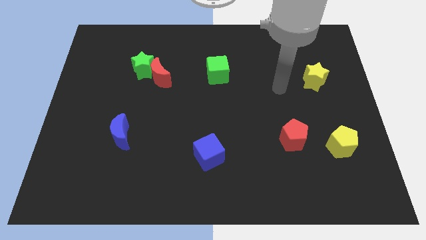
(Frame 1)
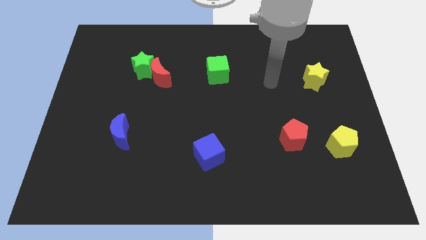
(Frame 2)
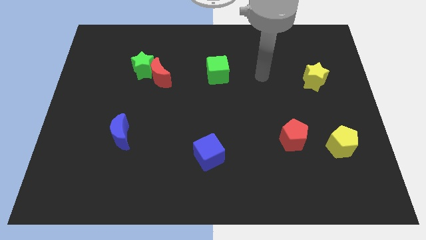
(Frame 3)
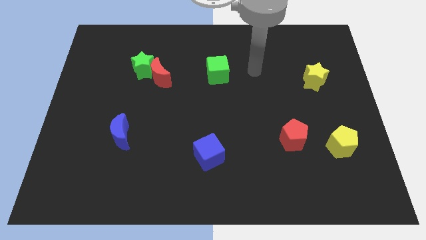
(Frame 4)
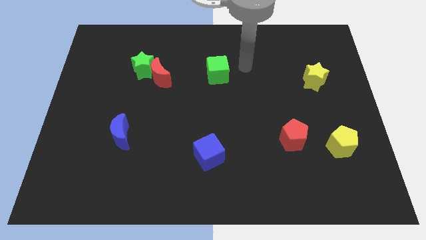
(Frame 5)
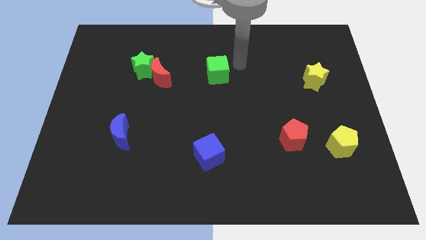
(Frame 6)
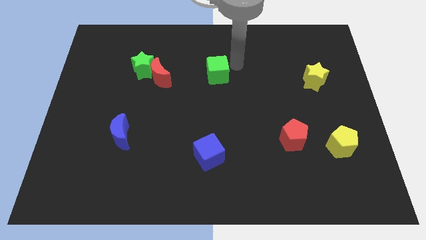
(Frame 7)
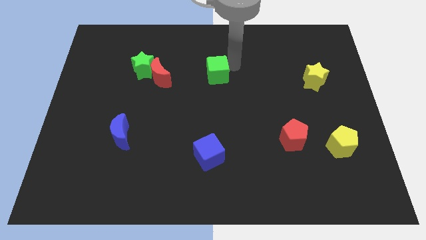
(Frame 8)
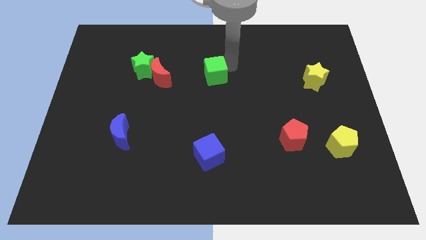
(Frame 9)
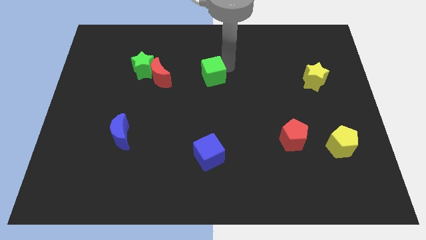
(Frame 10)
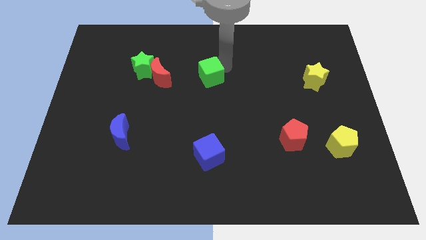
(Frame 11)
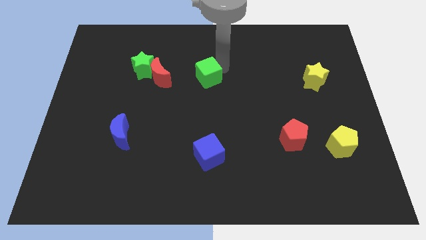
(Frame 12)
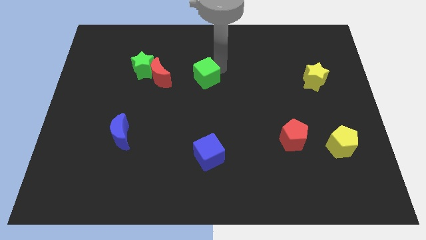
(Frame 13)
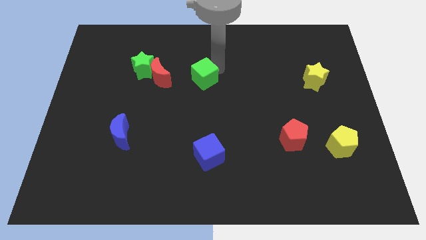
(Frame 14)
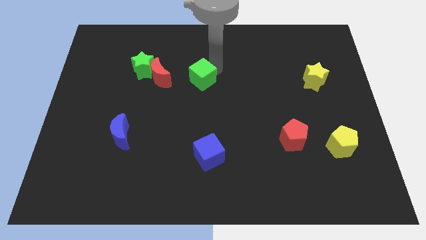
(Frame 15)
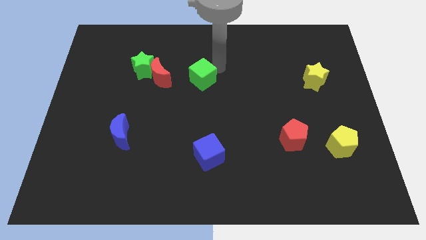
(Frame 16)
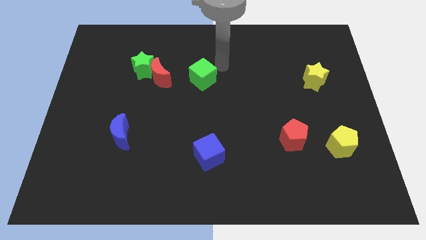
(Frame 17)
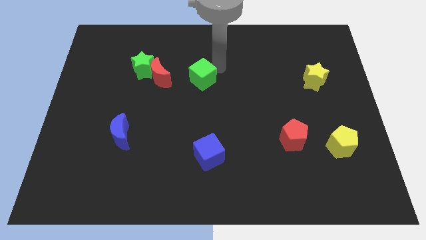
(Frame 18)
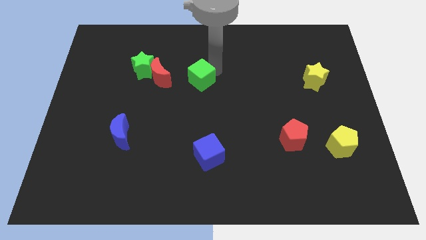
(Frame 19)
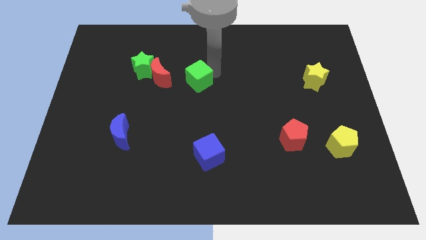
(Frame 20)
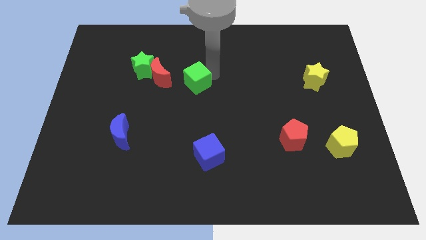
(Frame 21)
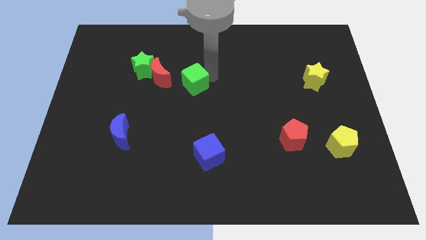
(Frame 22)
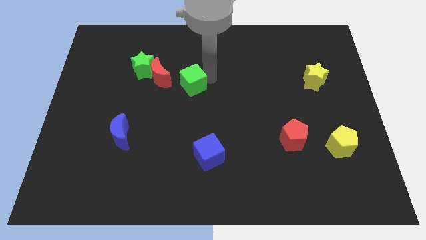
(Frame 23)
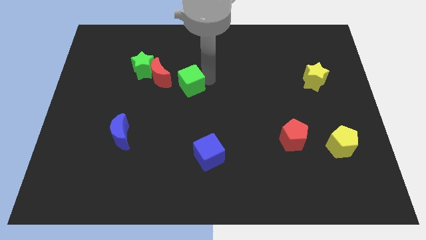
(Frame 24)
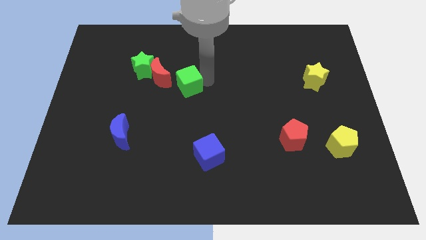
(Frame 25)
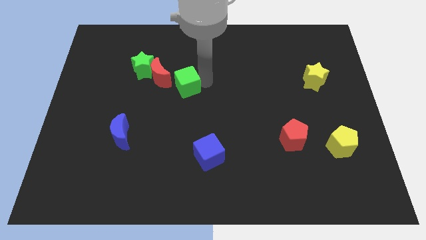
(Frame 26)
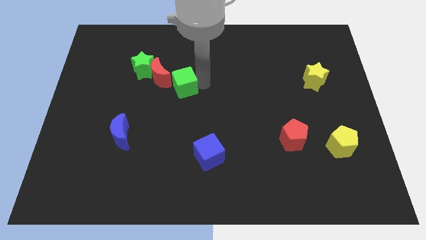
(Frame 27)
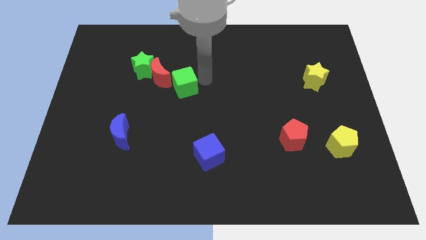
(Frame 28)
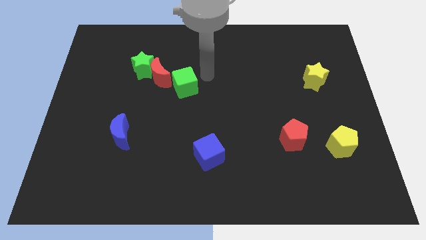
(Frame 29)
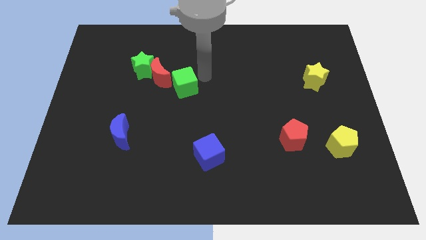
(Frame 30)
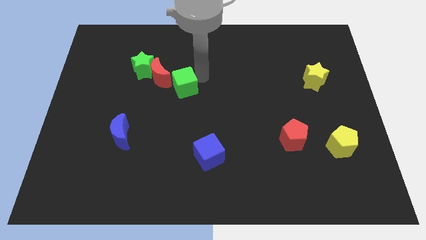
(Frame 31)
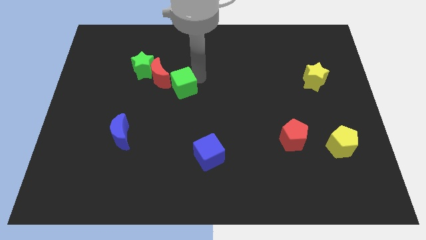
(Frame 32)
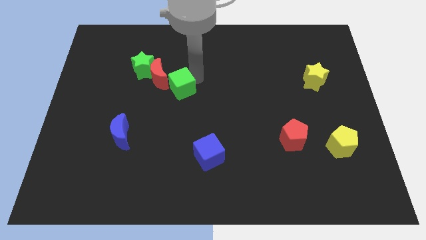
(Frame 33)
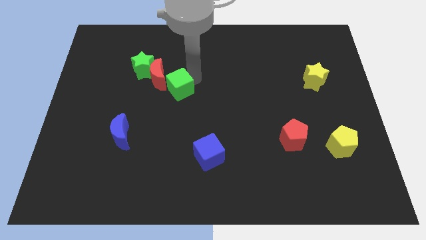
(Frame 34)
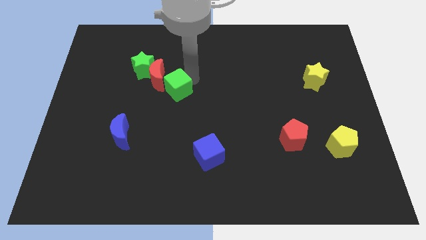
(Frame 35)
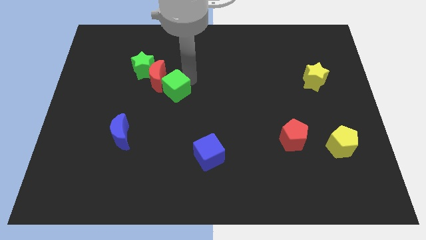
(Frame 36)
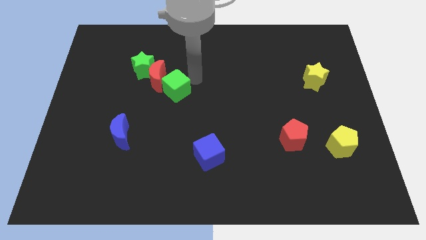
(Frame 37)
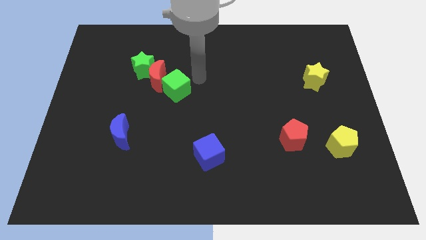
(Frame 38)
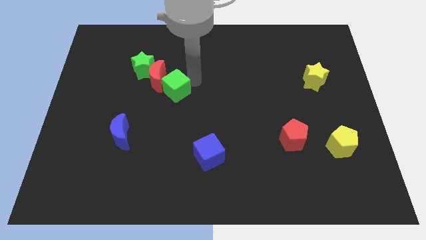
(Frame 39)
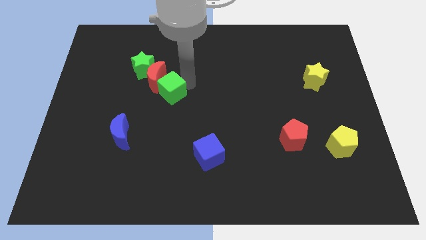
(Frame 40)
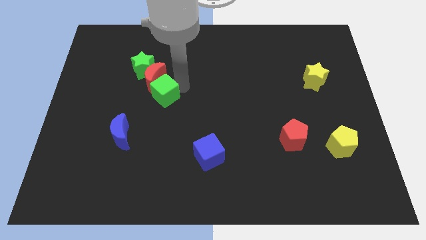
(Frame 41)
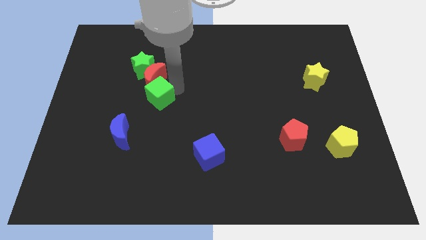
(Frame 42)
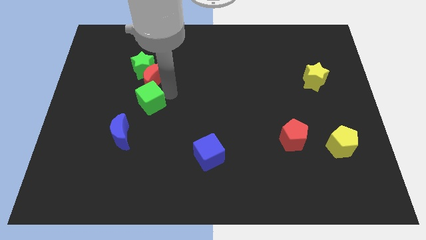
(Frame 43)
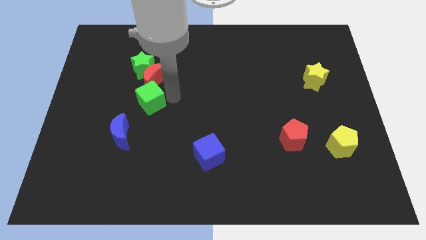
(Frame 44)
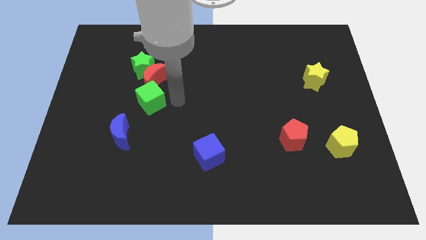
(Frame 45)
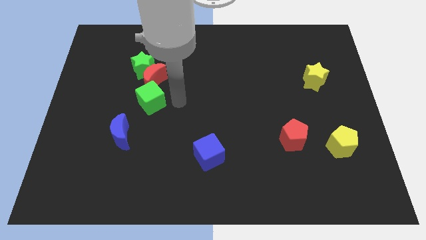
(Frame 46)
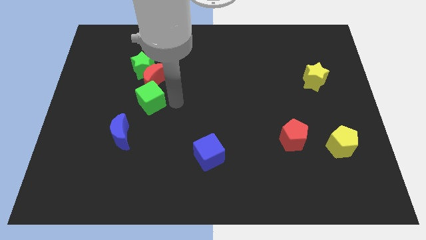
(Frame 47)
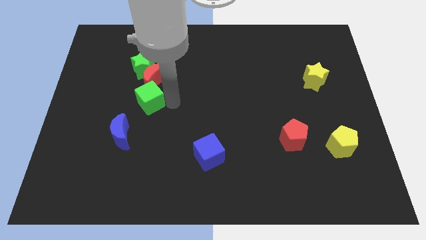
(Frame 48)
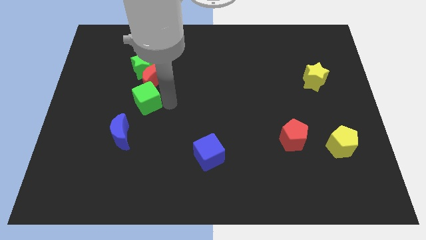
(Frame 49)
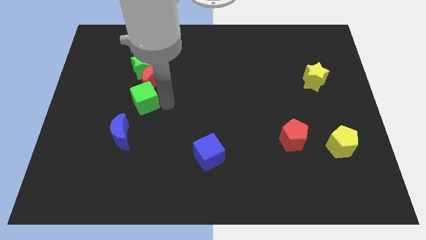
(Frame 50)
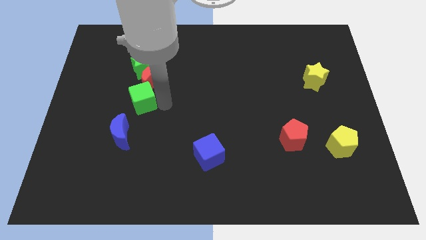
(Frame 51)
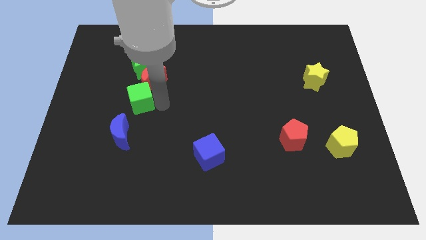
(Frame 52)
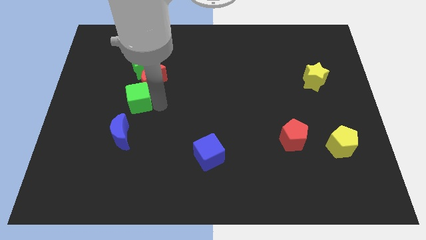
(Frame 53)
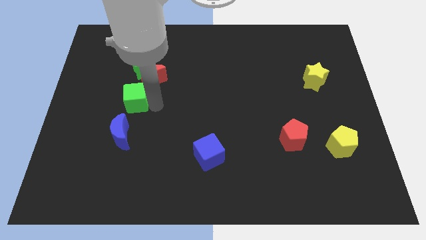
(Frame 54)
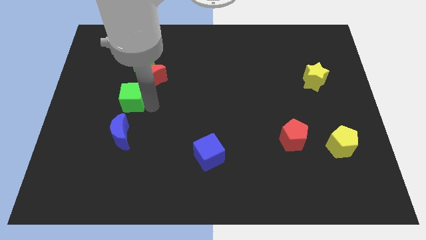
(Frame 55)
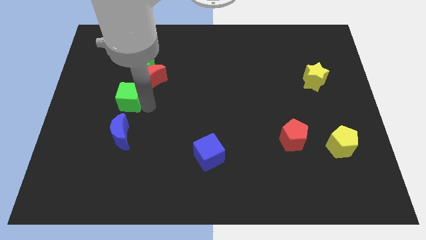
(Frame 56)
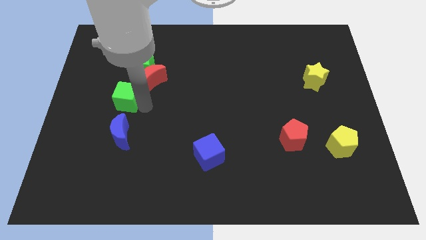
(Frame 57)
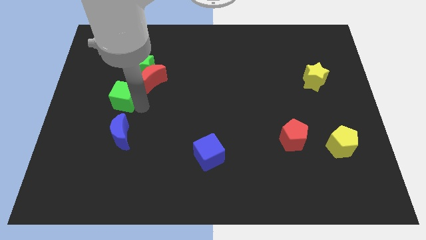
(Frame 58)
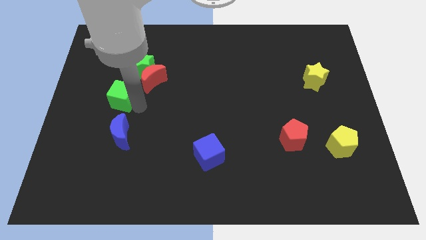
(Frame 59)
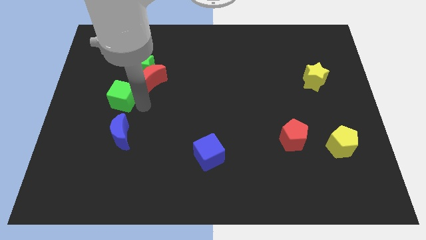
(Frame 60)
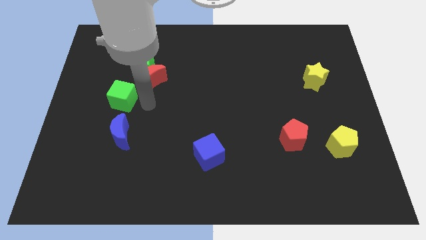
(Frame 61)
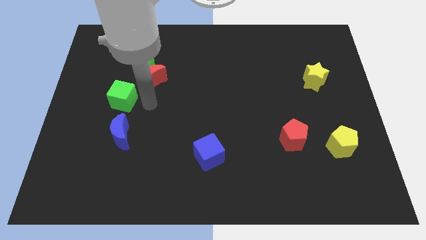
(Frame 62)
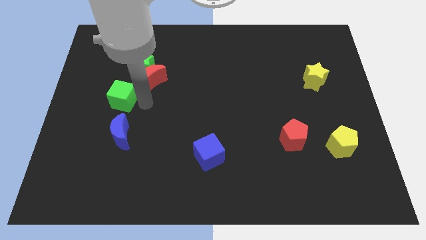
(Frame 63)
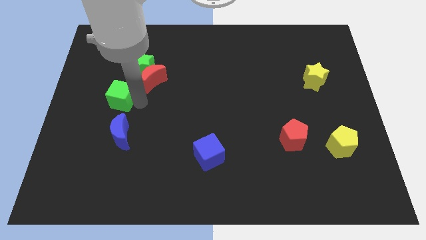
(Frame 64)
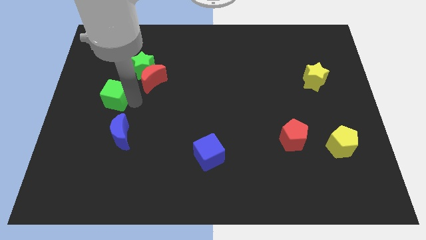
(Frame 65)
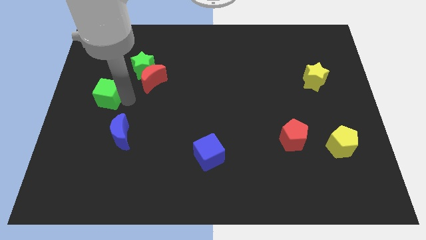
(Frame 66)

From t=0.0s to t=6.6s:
push the green cube to the center left

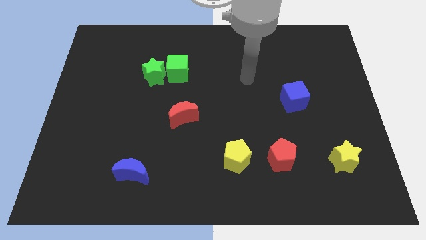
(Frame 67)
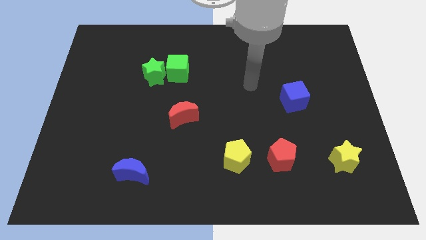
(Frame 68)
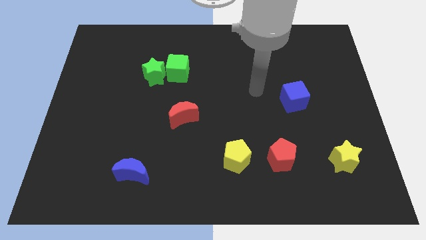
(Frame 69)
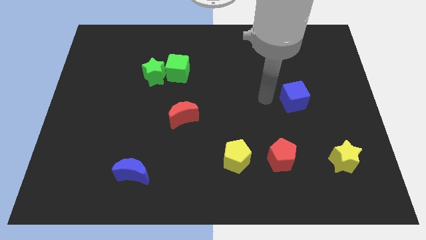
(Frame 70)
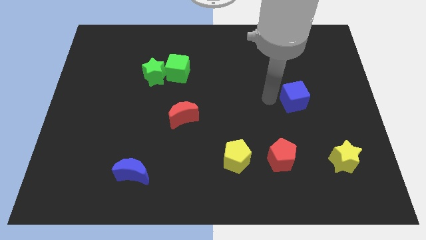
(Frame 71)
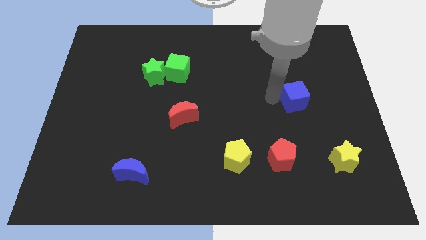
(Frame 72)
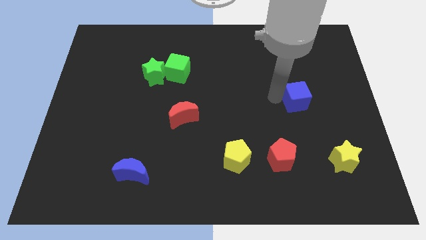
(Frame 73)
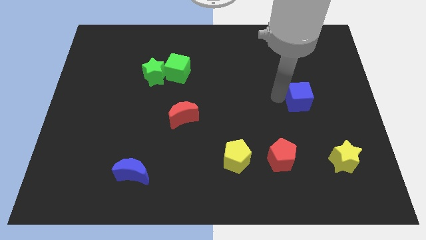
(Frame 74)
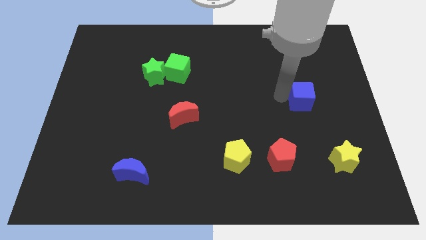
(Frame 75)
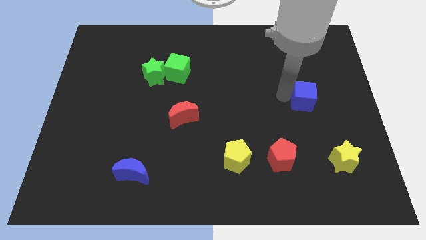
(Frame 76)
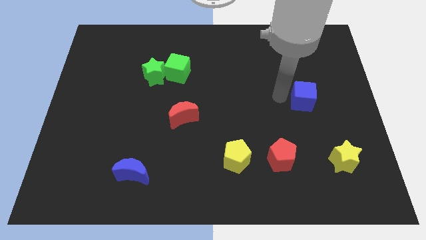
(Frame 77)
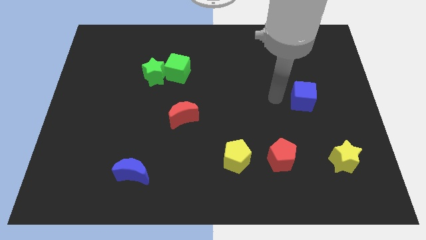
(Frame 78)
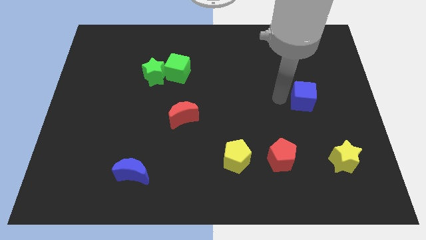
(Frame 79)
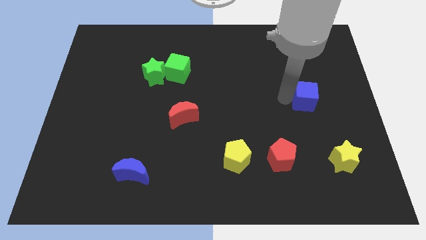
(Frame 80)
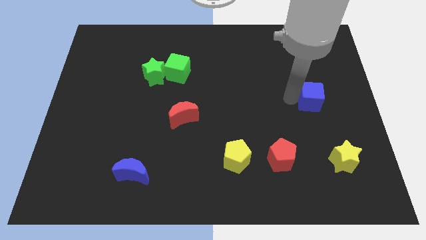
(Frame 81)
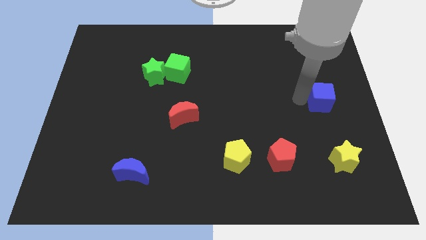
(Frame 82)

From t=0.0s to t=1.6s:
move the blue cube to the right side of the board
